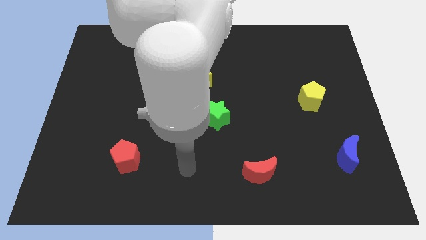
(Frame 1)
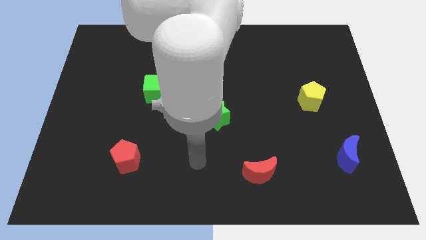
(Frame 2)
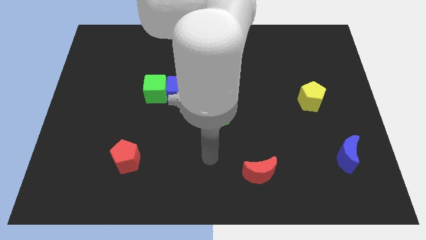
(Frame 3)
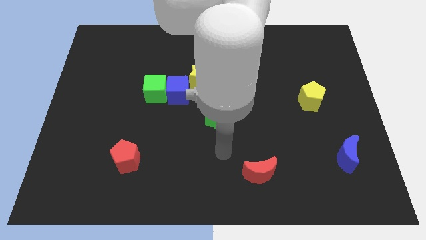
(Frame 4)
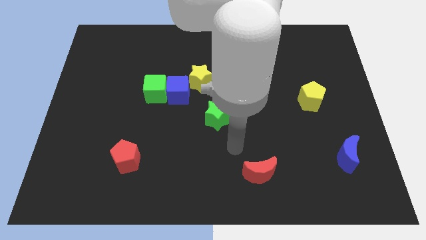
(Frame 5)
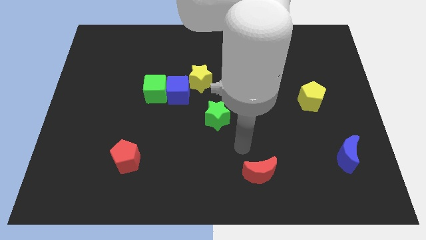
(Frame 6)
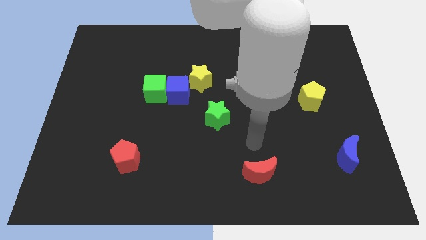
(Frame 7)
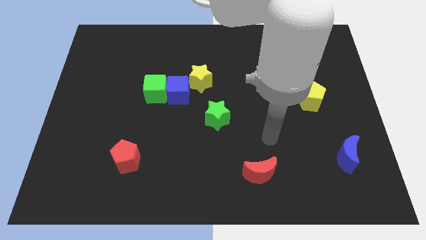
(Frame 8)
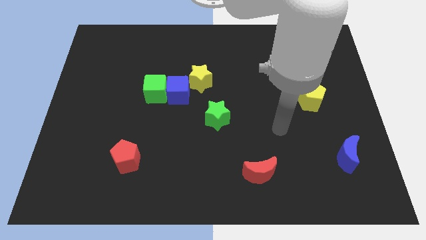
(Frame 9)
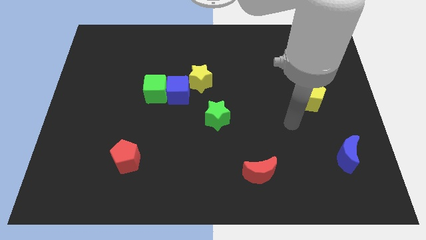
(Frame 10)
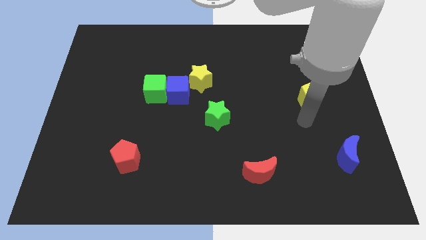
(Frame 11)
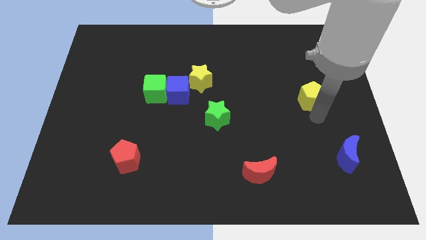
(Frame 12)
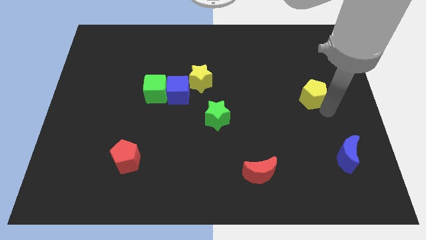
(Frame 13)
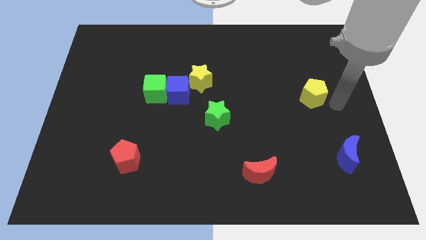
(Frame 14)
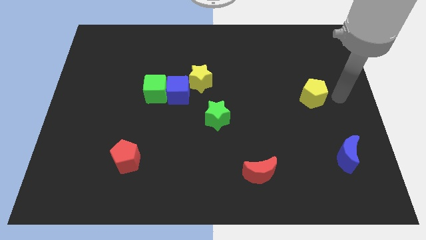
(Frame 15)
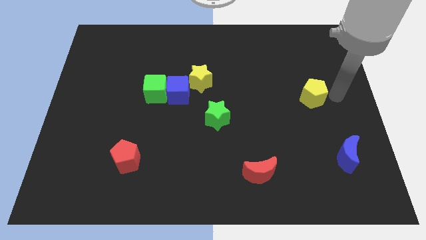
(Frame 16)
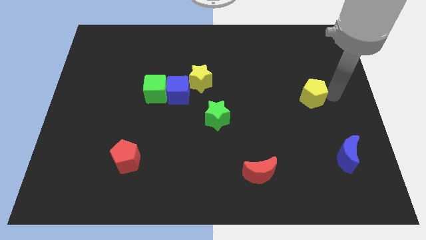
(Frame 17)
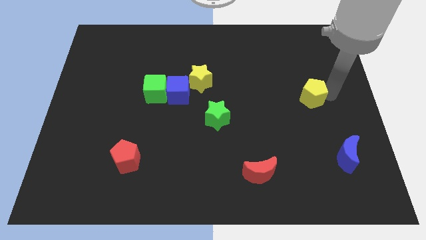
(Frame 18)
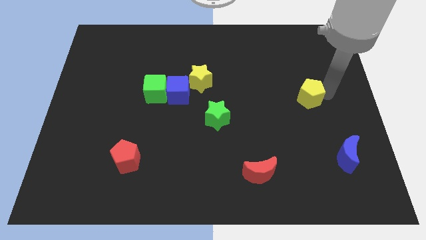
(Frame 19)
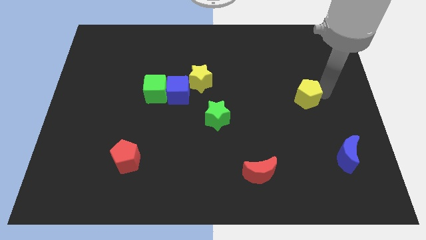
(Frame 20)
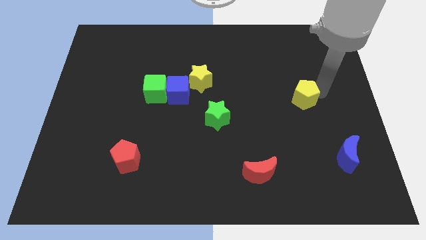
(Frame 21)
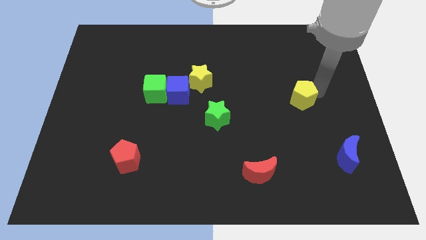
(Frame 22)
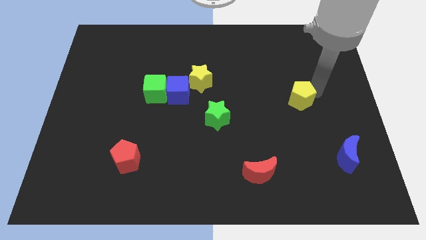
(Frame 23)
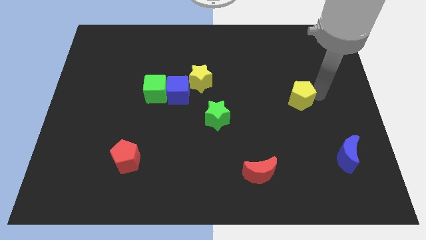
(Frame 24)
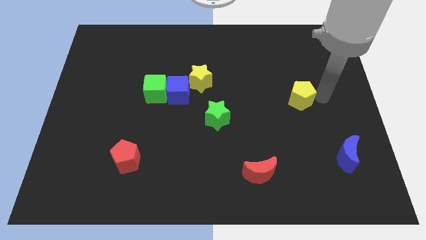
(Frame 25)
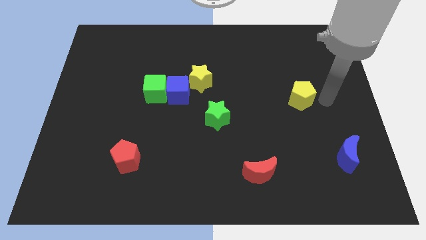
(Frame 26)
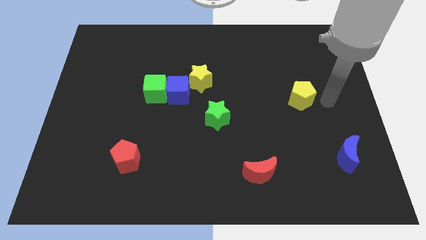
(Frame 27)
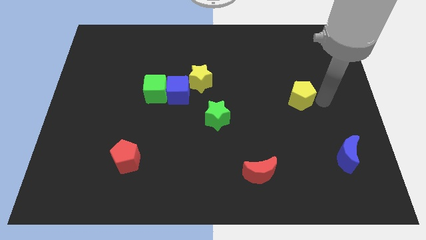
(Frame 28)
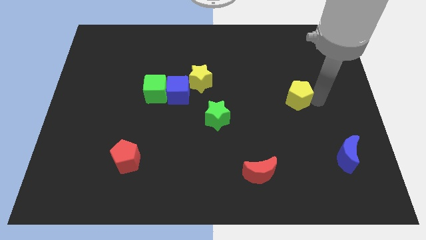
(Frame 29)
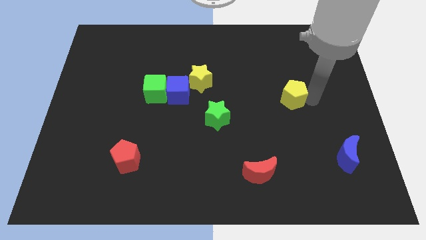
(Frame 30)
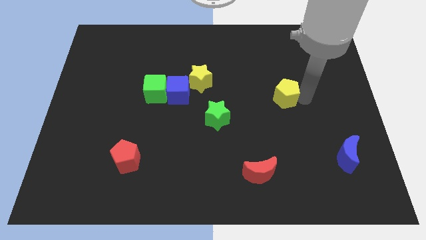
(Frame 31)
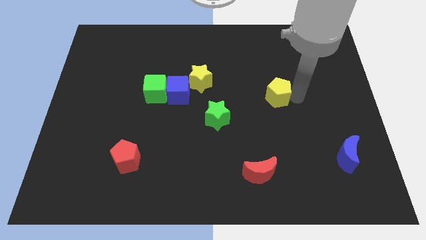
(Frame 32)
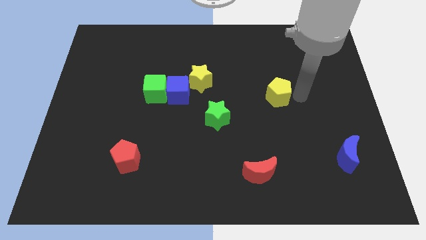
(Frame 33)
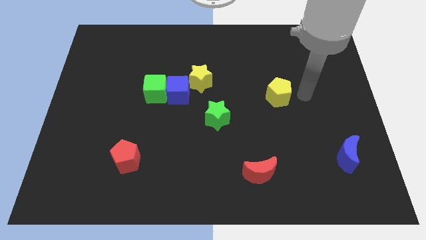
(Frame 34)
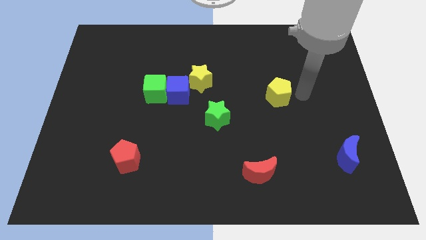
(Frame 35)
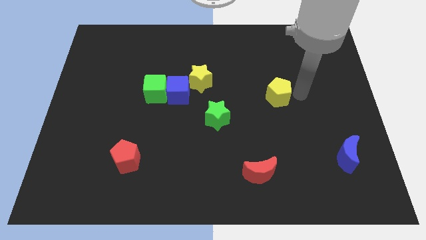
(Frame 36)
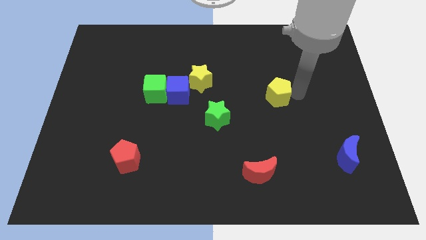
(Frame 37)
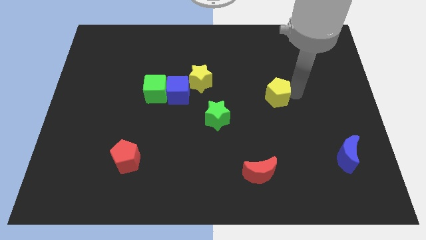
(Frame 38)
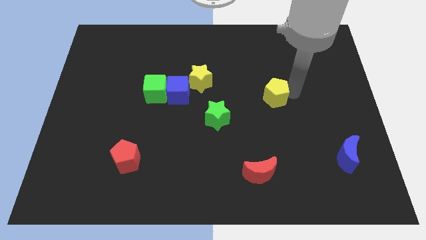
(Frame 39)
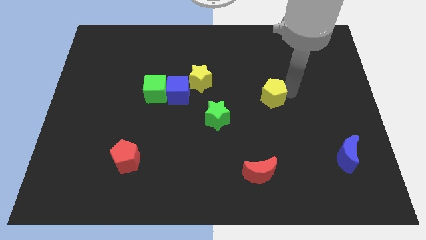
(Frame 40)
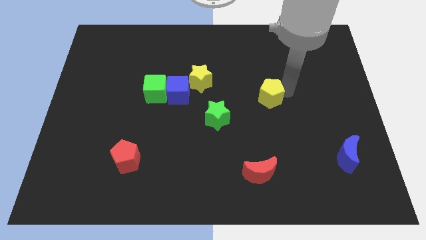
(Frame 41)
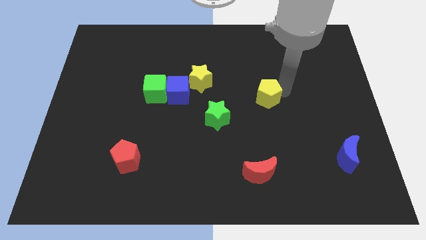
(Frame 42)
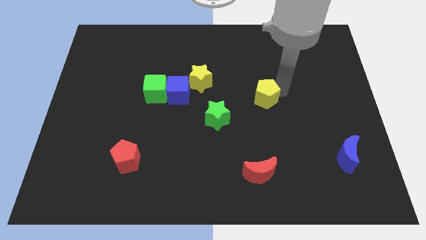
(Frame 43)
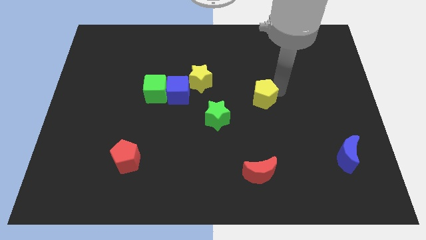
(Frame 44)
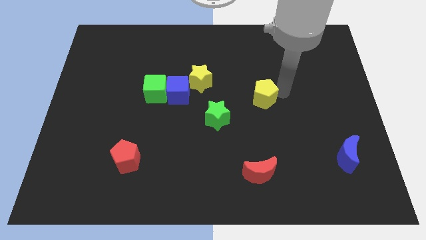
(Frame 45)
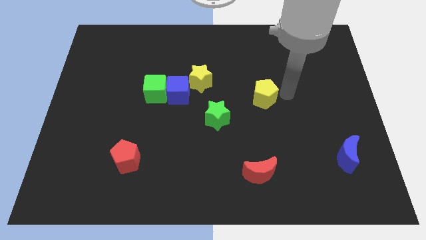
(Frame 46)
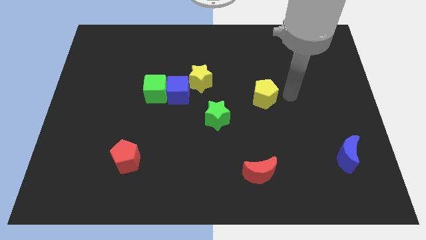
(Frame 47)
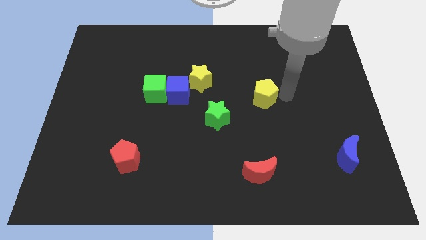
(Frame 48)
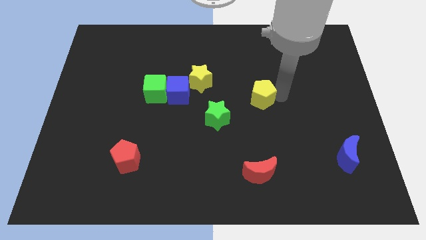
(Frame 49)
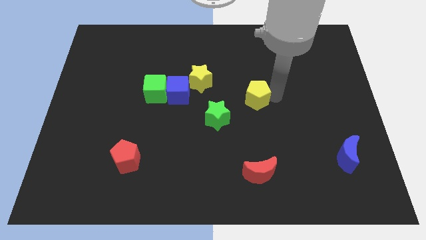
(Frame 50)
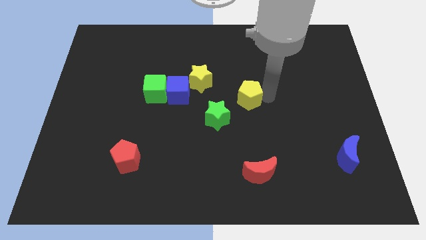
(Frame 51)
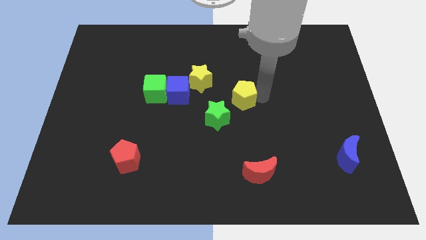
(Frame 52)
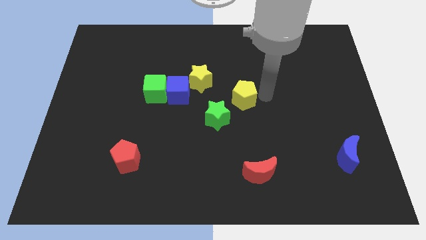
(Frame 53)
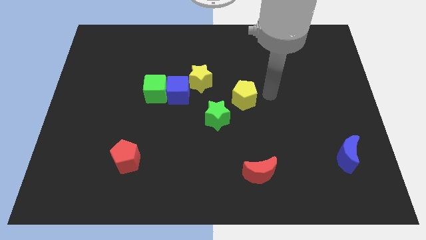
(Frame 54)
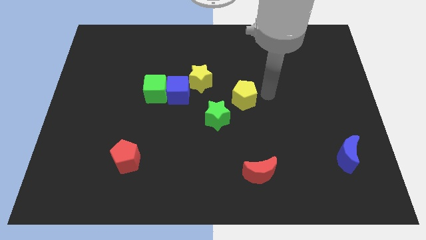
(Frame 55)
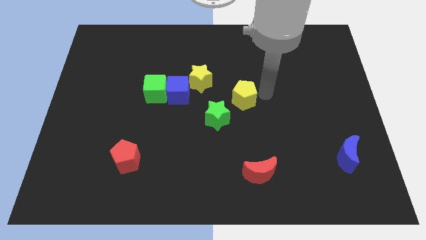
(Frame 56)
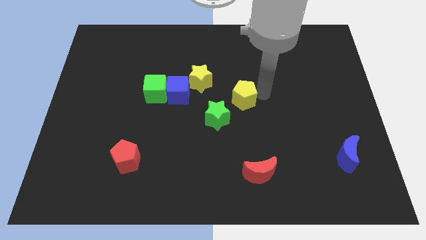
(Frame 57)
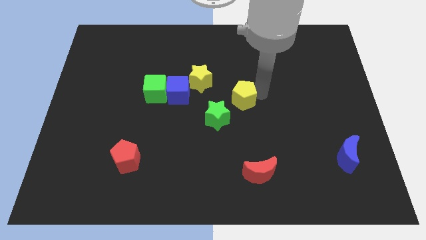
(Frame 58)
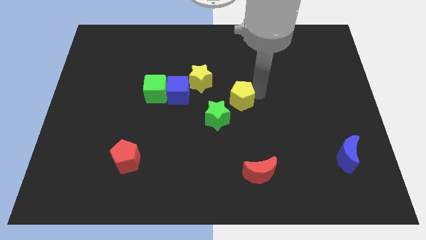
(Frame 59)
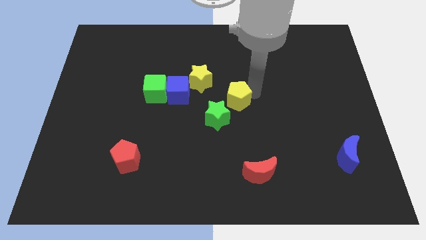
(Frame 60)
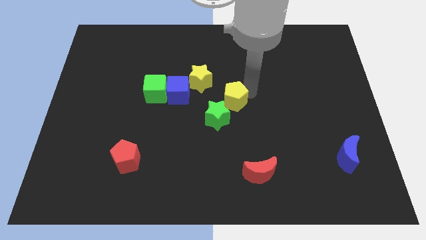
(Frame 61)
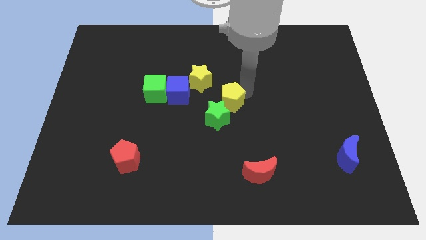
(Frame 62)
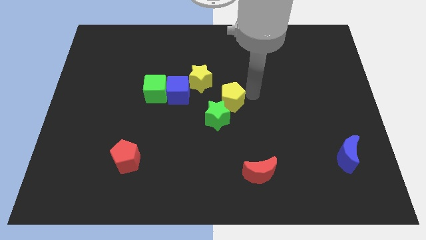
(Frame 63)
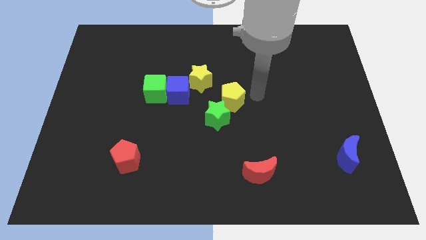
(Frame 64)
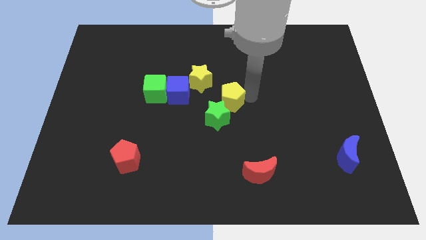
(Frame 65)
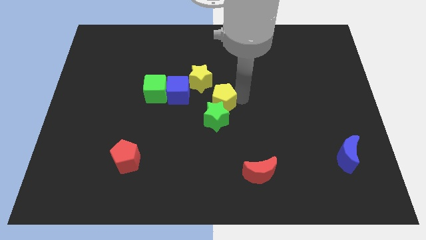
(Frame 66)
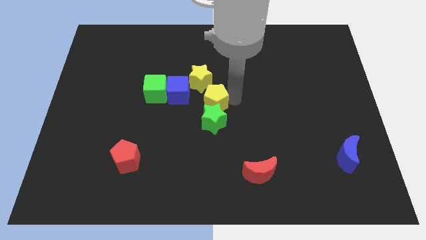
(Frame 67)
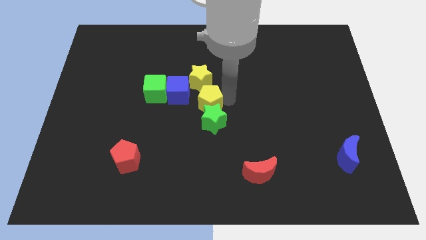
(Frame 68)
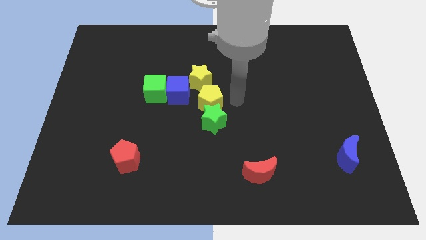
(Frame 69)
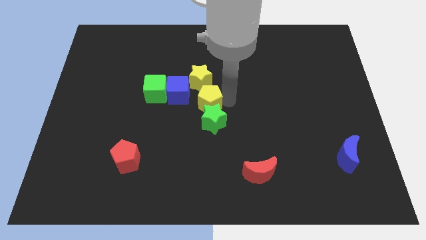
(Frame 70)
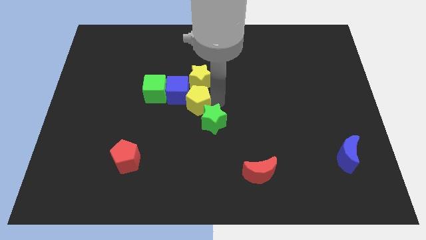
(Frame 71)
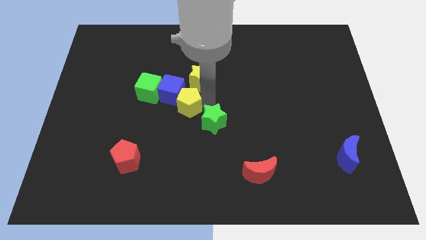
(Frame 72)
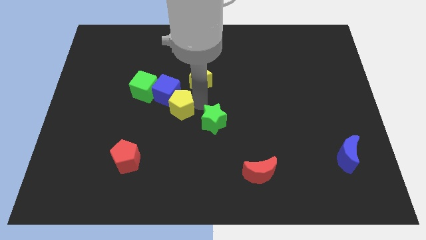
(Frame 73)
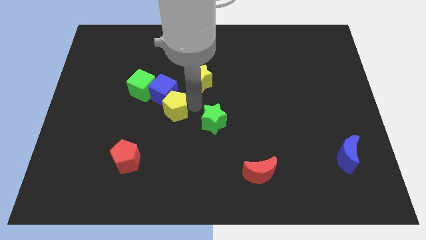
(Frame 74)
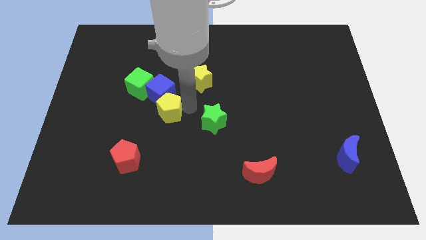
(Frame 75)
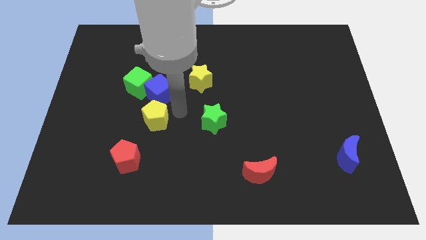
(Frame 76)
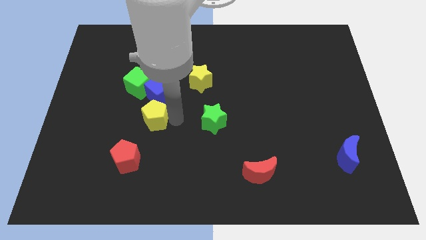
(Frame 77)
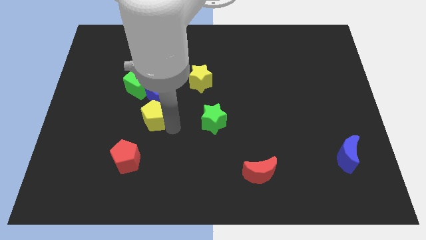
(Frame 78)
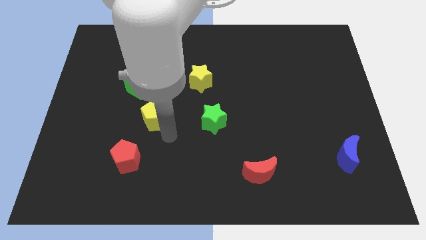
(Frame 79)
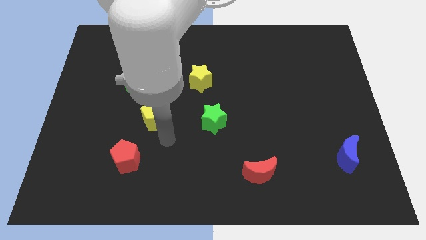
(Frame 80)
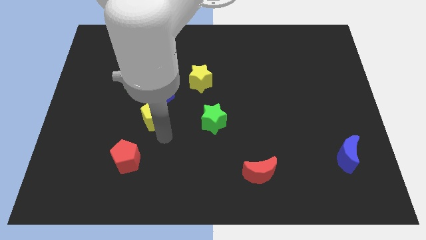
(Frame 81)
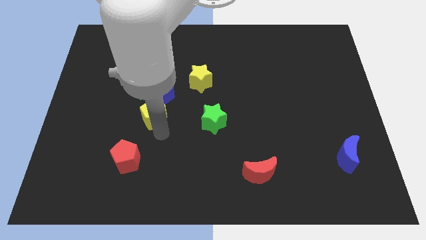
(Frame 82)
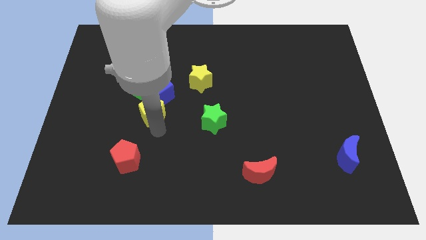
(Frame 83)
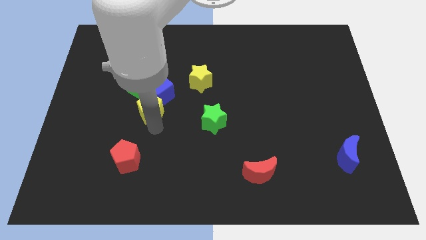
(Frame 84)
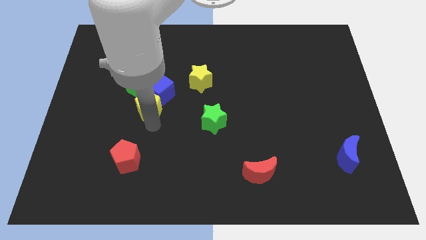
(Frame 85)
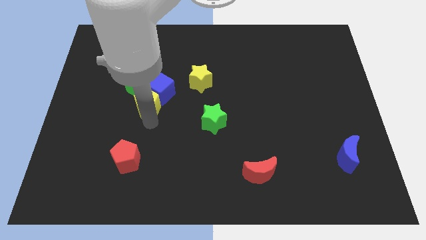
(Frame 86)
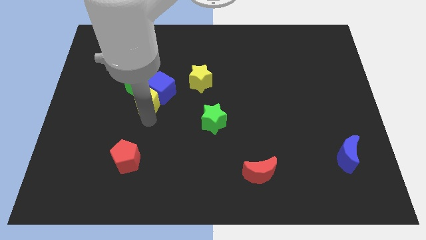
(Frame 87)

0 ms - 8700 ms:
slide the yellow pentagon towards the green cube
